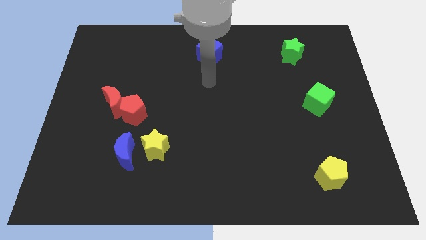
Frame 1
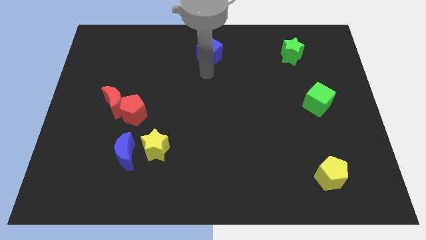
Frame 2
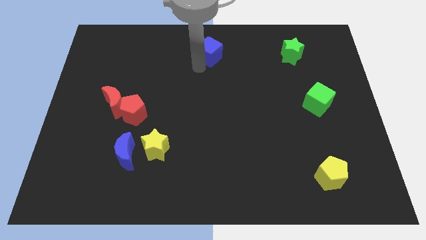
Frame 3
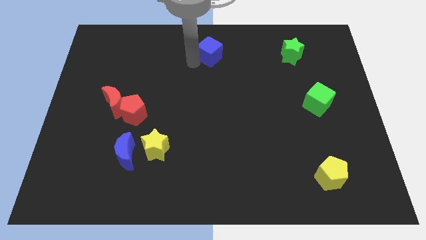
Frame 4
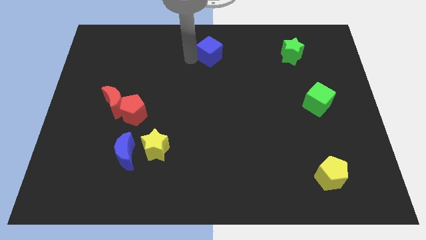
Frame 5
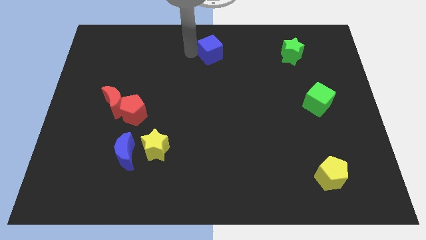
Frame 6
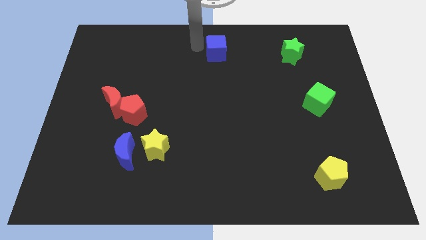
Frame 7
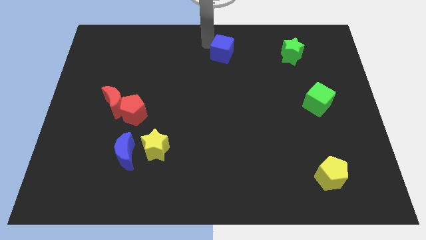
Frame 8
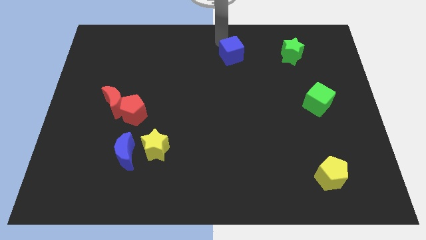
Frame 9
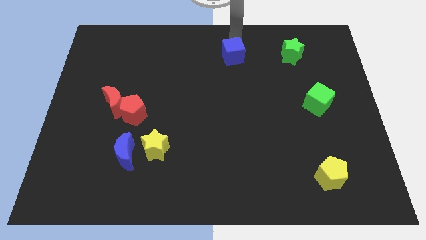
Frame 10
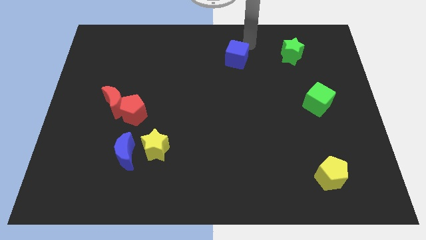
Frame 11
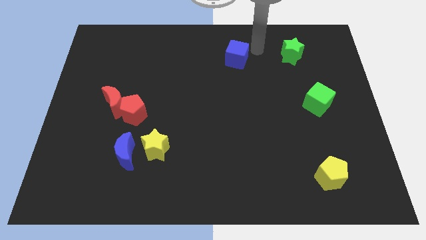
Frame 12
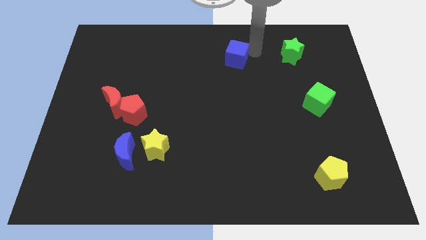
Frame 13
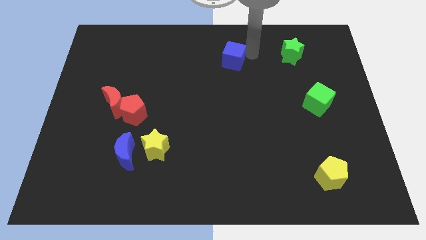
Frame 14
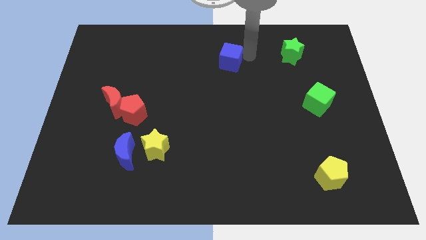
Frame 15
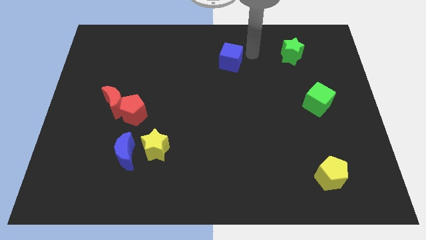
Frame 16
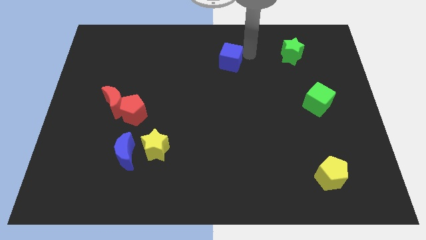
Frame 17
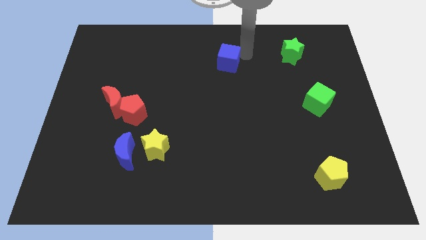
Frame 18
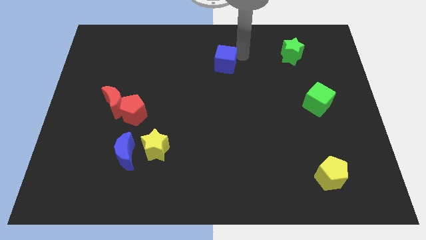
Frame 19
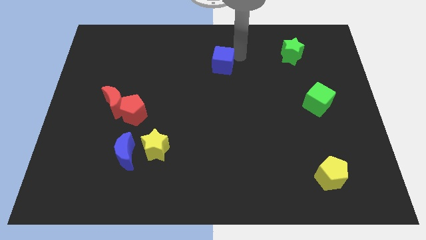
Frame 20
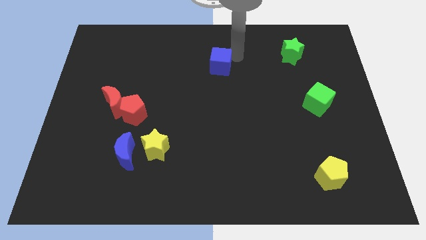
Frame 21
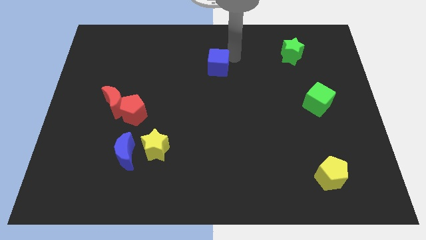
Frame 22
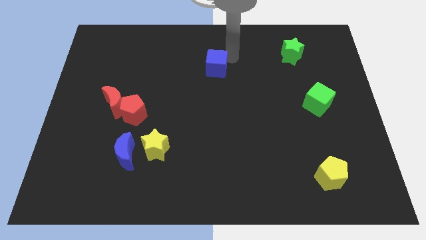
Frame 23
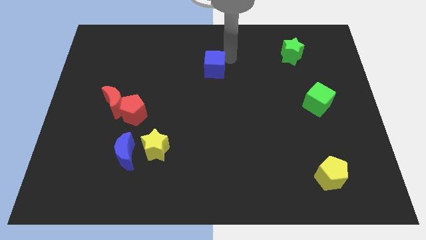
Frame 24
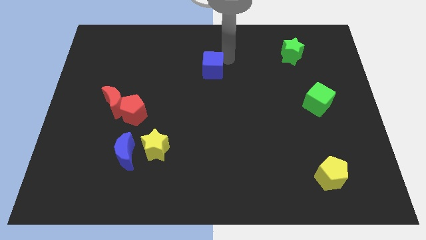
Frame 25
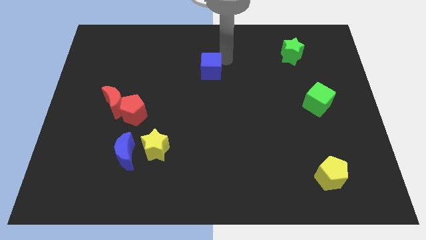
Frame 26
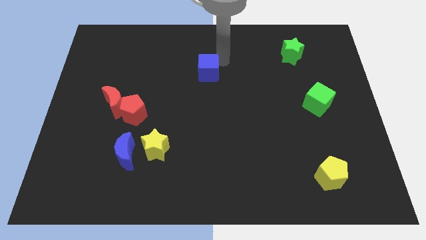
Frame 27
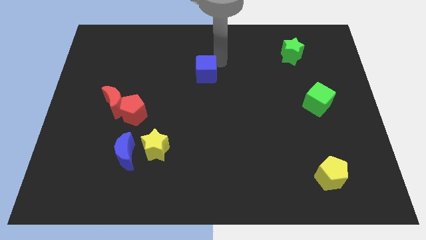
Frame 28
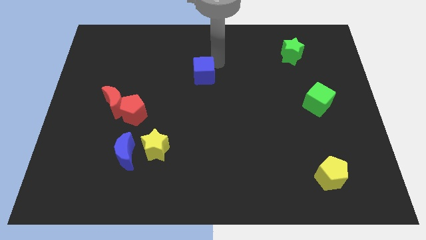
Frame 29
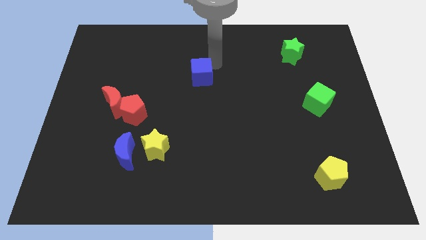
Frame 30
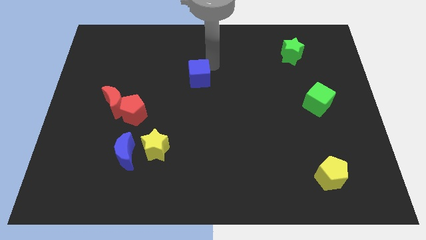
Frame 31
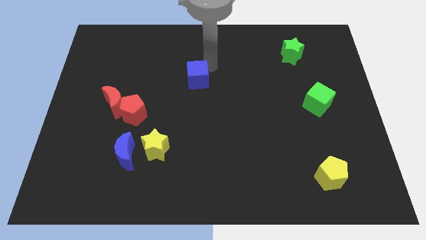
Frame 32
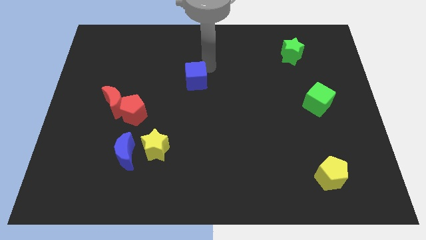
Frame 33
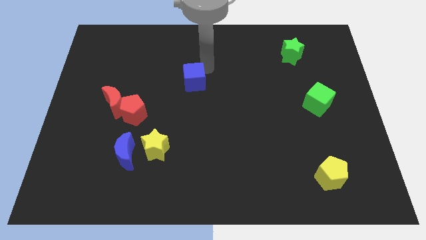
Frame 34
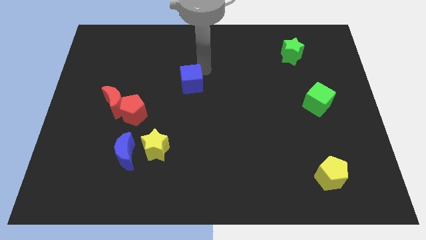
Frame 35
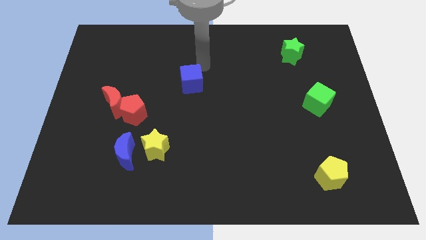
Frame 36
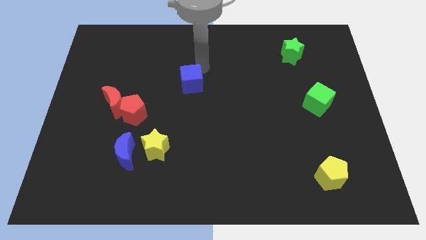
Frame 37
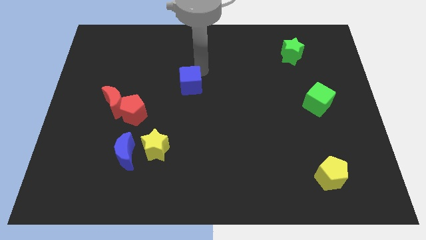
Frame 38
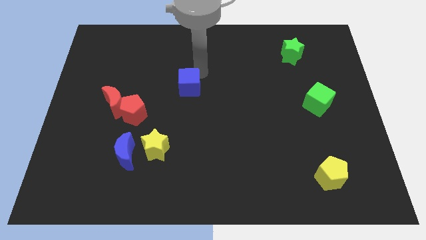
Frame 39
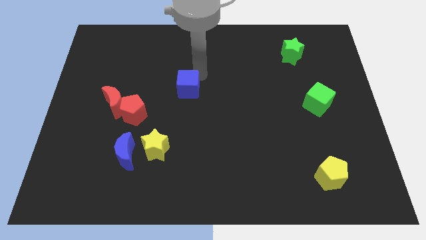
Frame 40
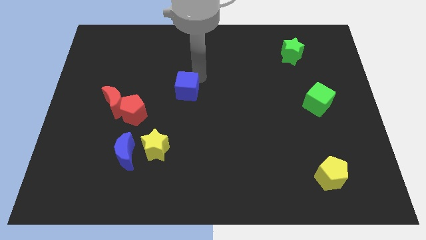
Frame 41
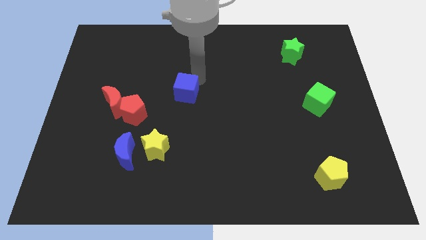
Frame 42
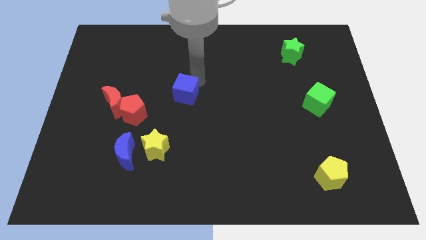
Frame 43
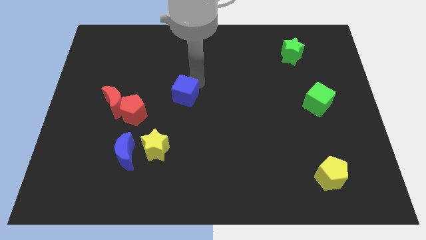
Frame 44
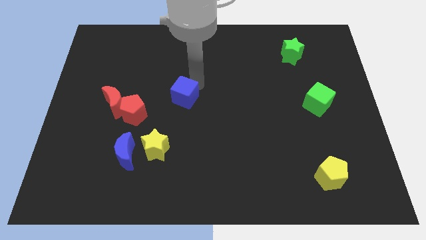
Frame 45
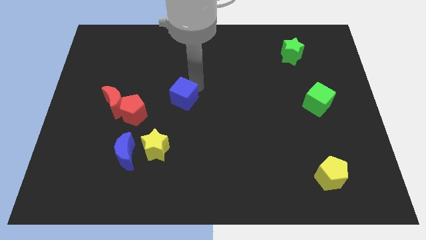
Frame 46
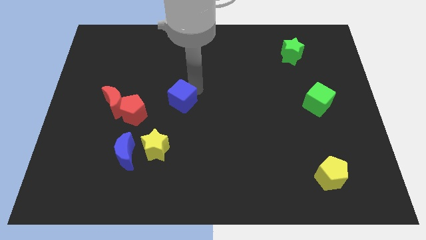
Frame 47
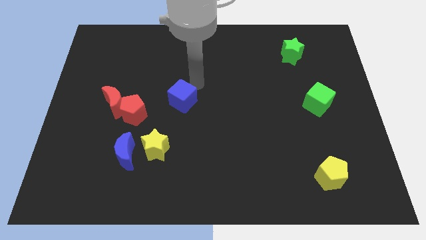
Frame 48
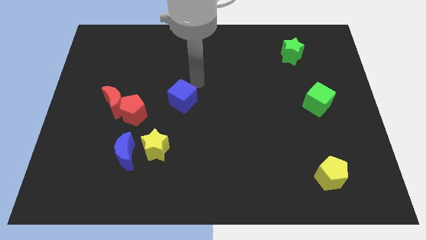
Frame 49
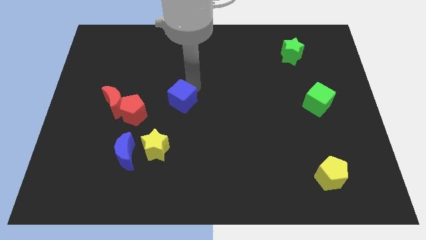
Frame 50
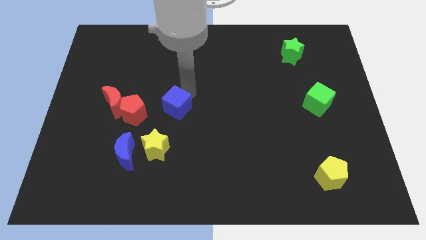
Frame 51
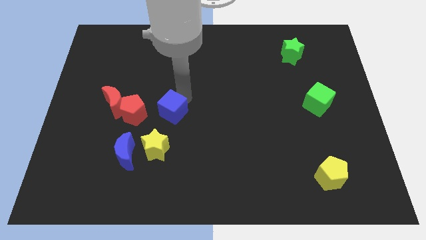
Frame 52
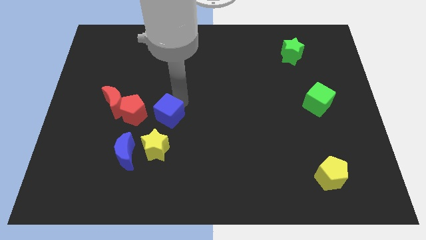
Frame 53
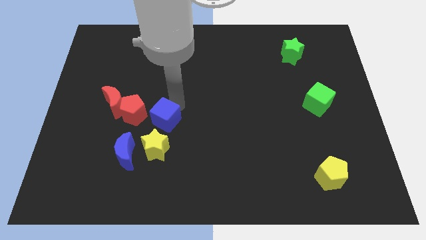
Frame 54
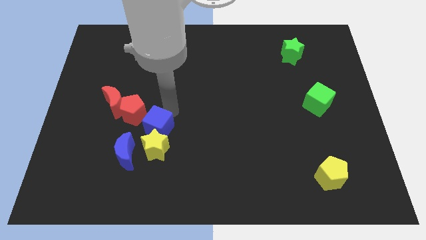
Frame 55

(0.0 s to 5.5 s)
slide the blue cube next to the yellow star
